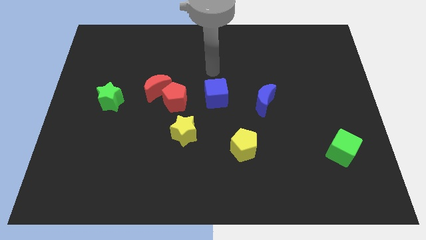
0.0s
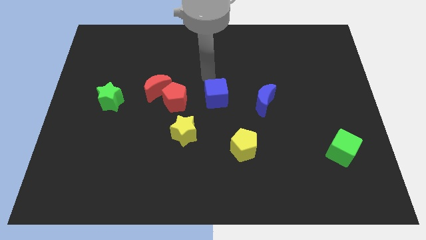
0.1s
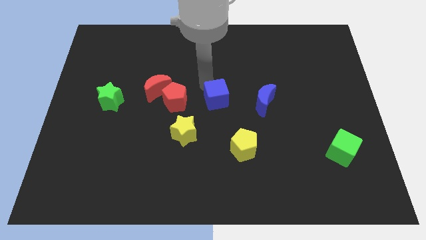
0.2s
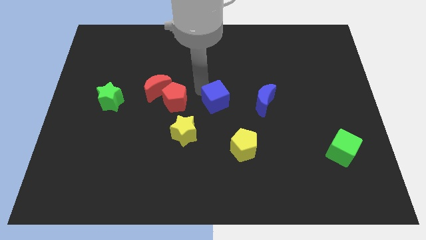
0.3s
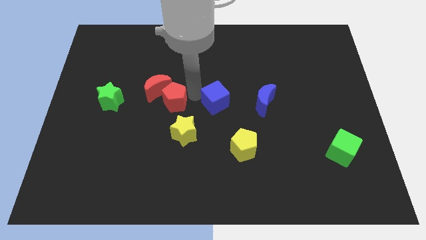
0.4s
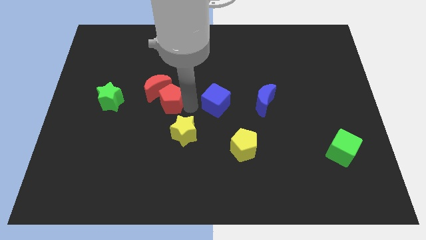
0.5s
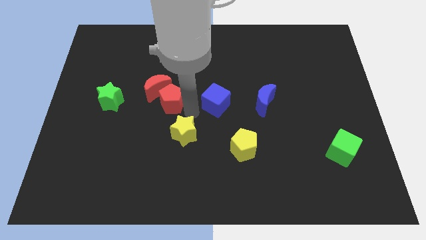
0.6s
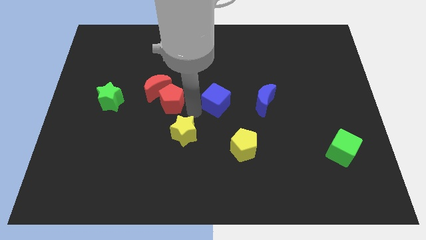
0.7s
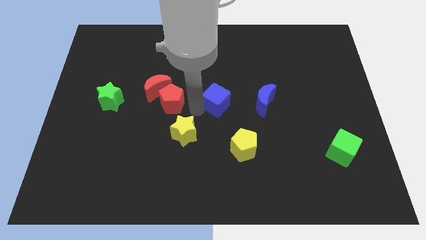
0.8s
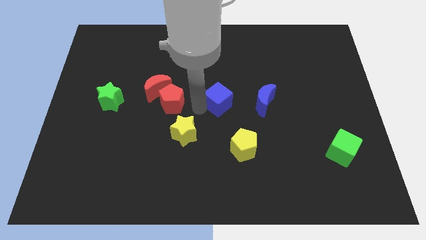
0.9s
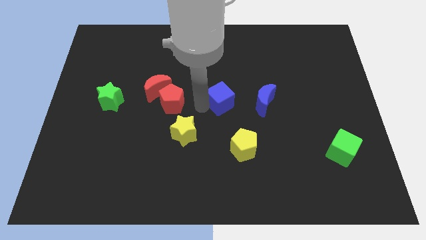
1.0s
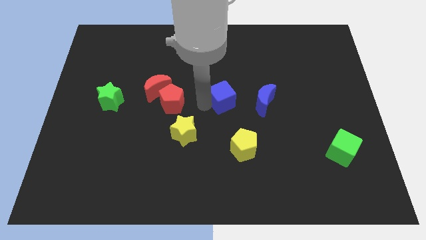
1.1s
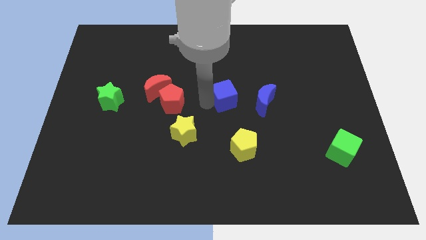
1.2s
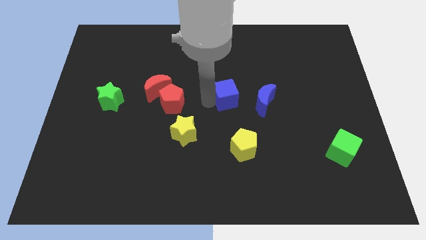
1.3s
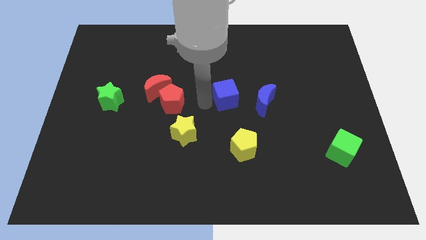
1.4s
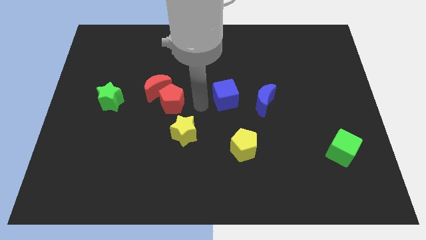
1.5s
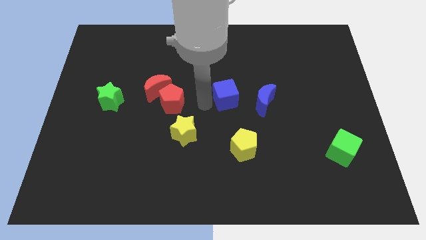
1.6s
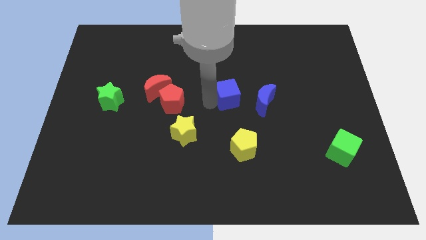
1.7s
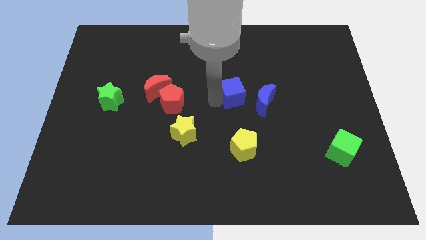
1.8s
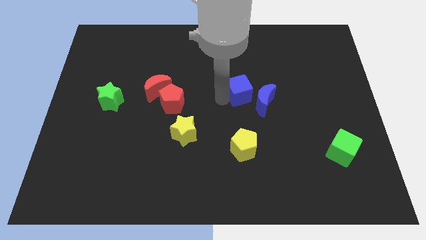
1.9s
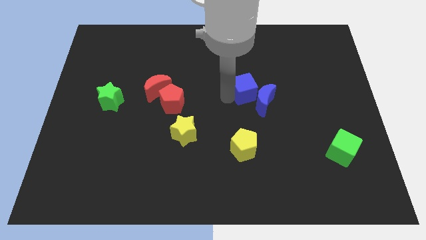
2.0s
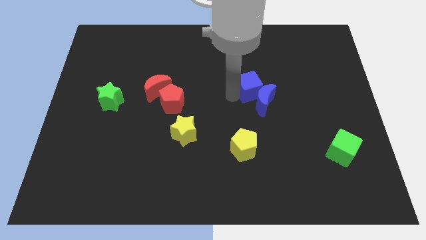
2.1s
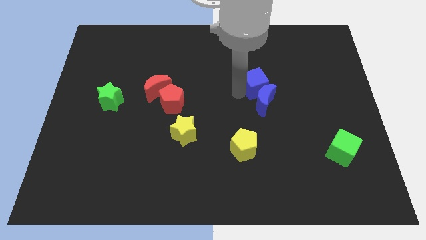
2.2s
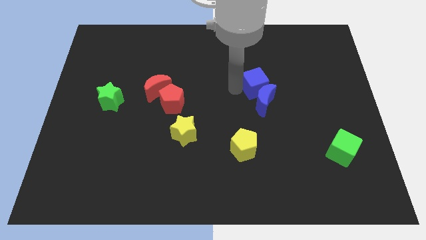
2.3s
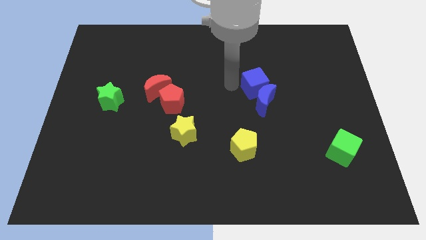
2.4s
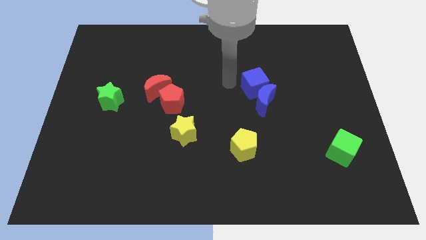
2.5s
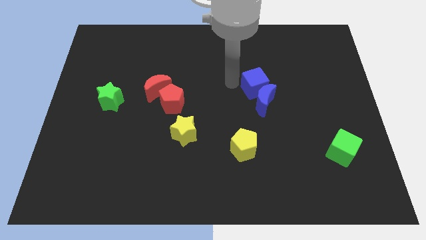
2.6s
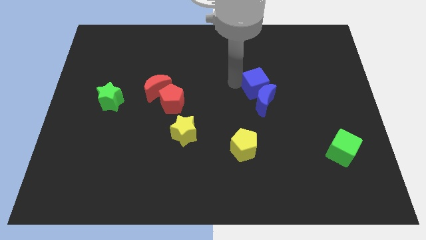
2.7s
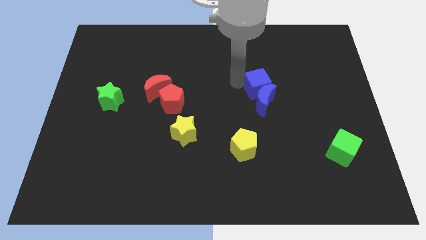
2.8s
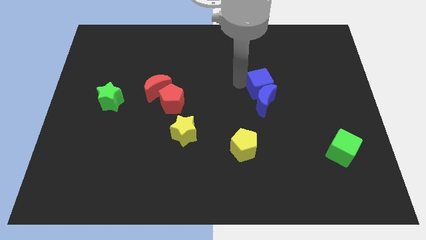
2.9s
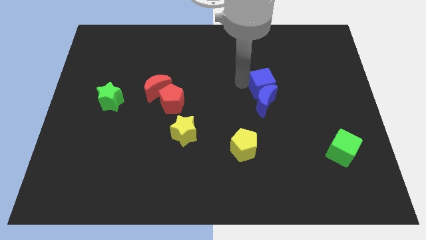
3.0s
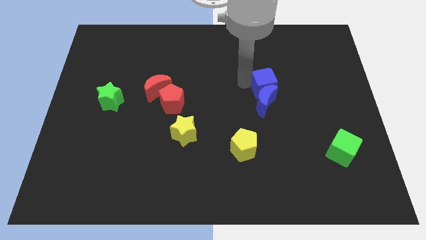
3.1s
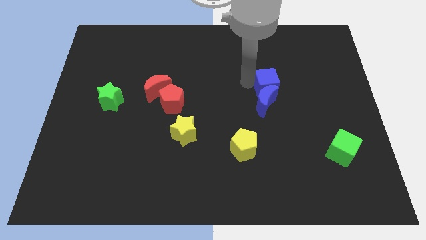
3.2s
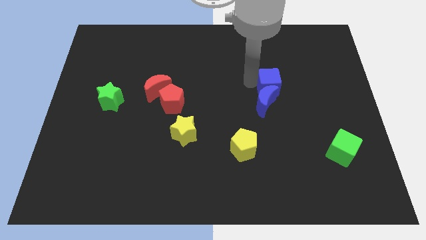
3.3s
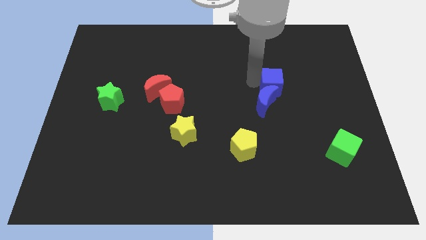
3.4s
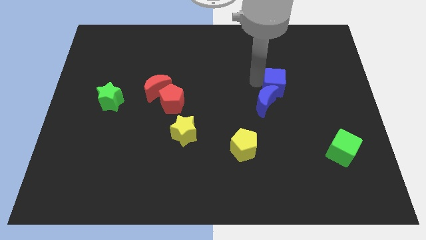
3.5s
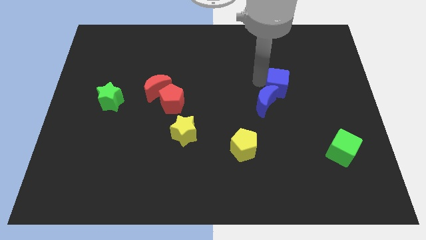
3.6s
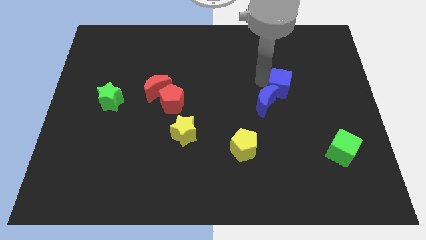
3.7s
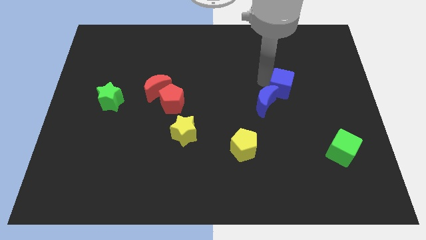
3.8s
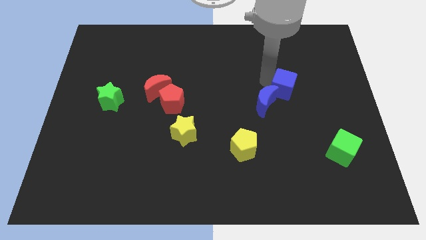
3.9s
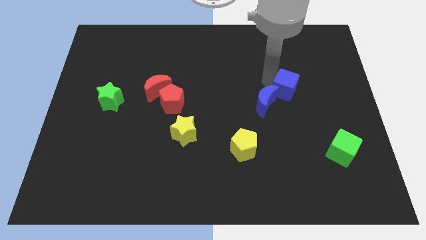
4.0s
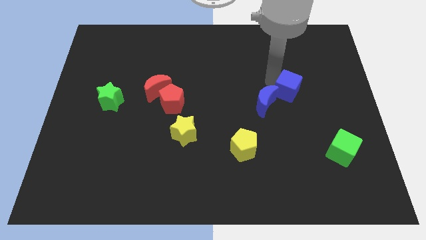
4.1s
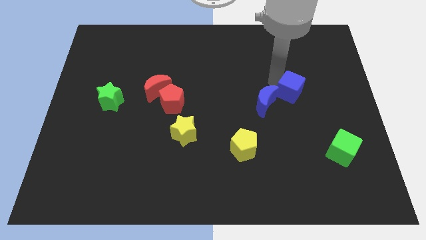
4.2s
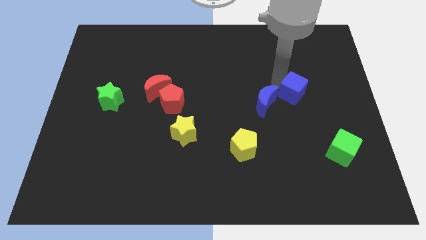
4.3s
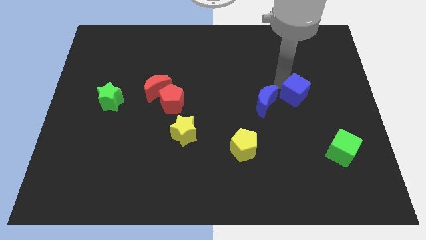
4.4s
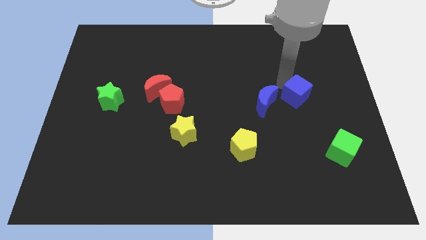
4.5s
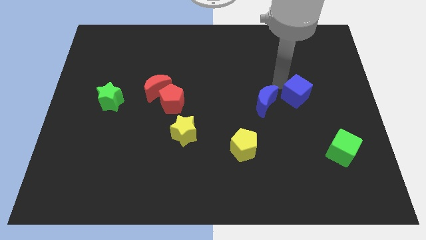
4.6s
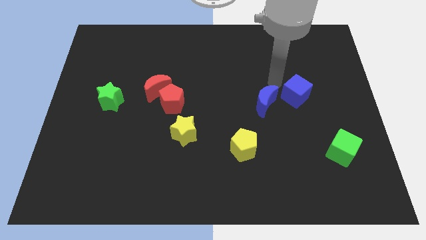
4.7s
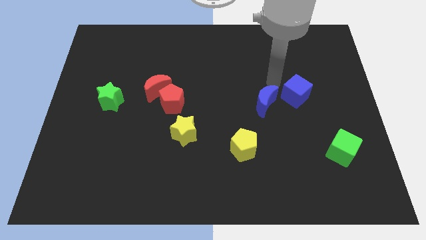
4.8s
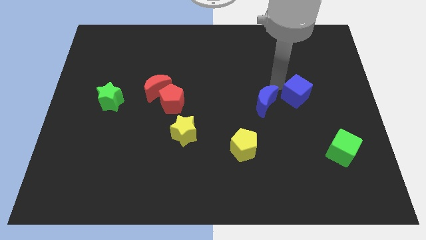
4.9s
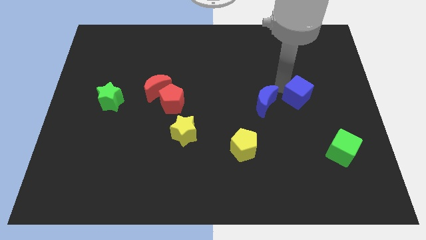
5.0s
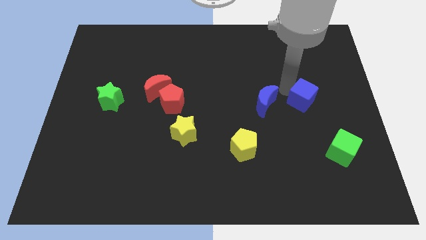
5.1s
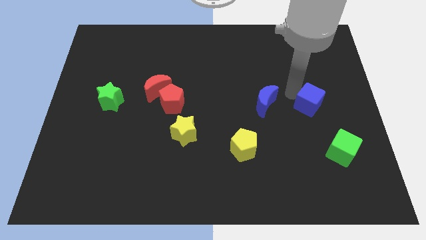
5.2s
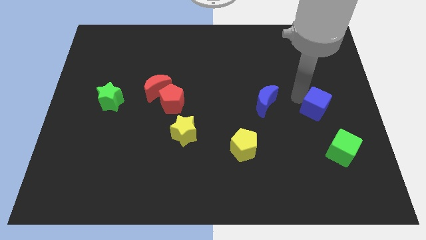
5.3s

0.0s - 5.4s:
push the blue cube to the top of the green cube

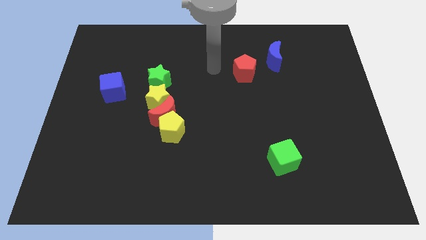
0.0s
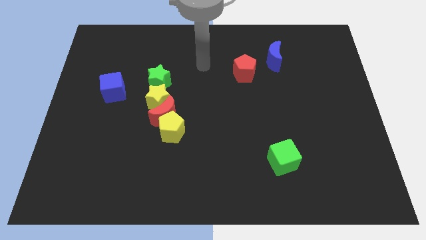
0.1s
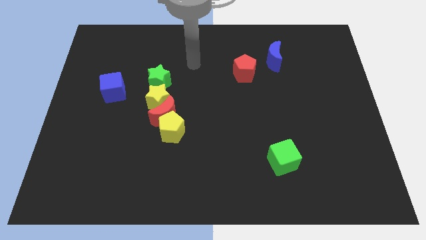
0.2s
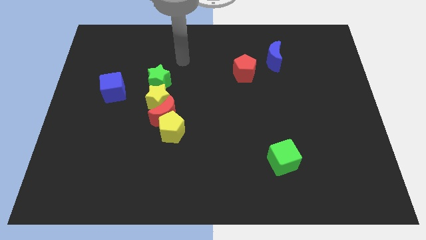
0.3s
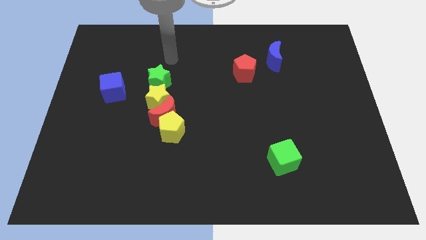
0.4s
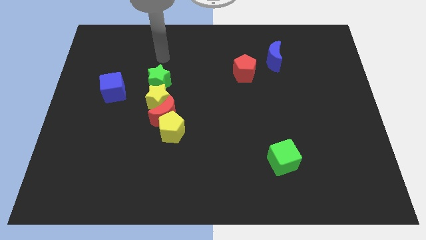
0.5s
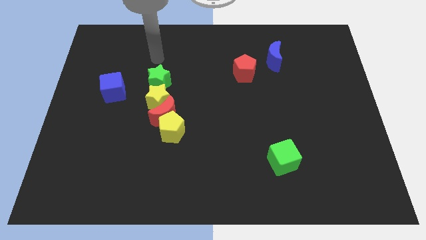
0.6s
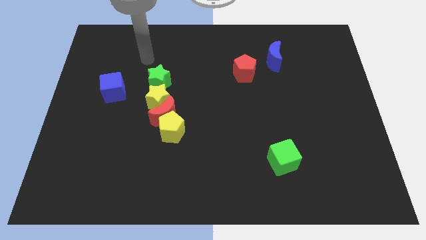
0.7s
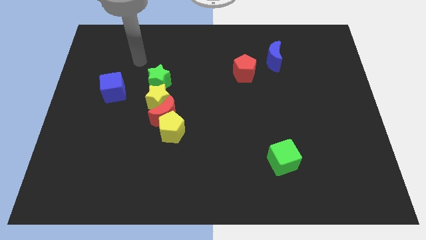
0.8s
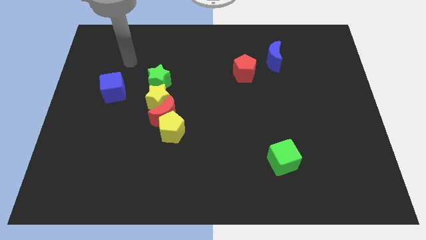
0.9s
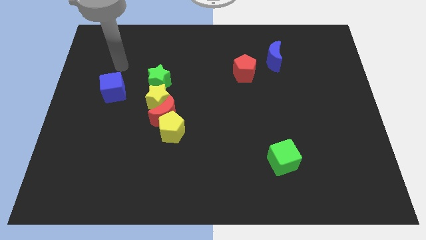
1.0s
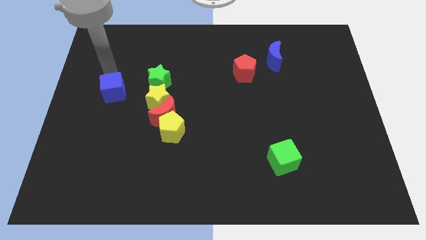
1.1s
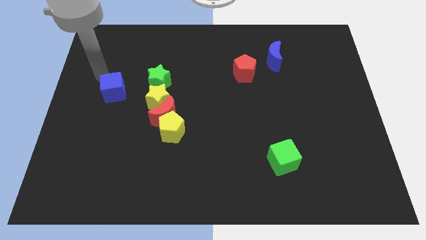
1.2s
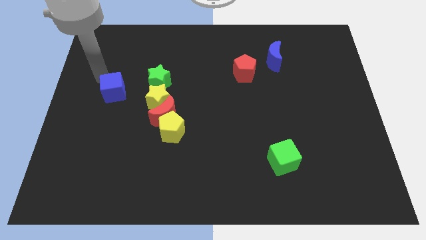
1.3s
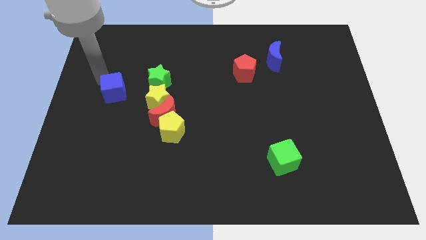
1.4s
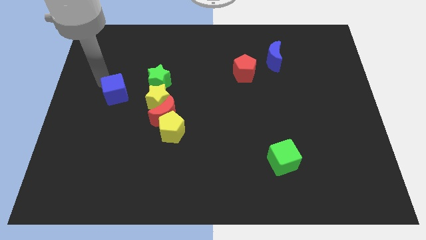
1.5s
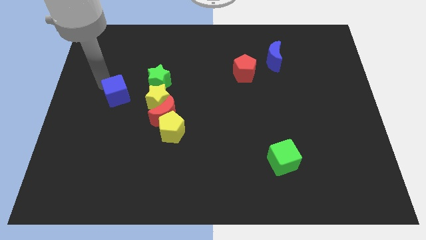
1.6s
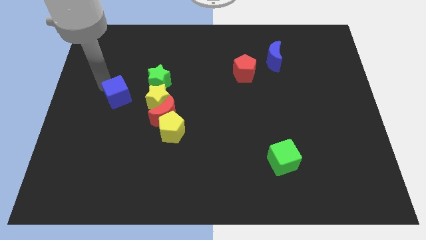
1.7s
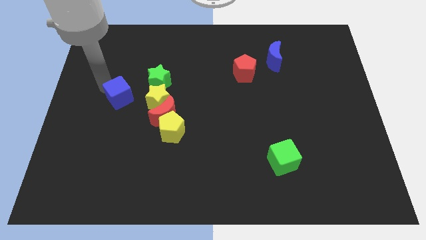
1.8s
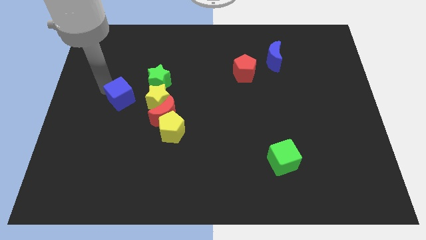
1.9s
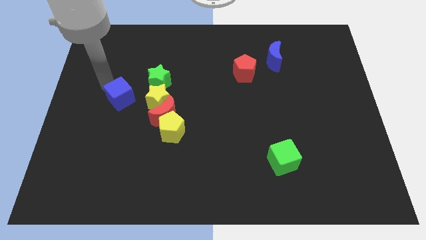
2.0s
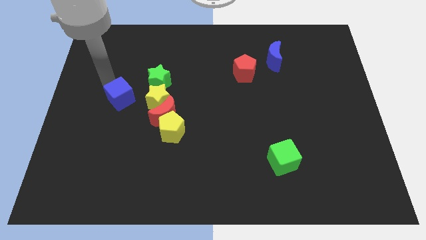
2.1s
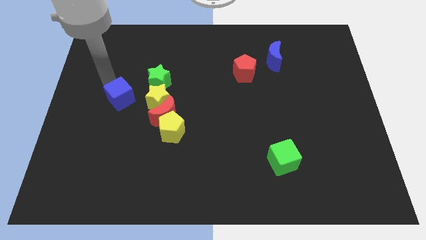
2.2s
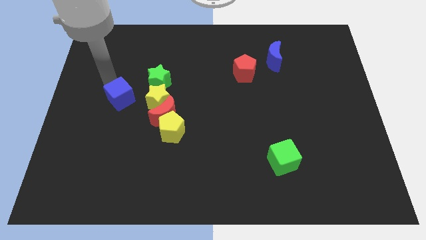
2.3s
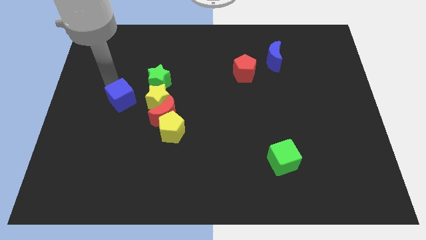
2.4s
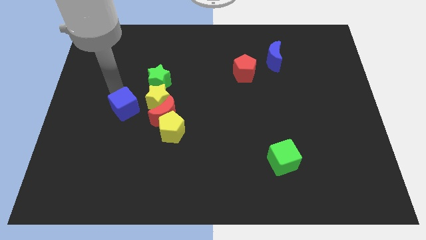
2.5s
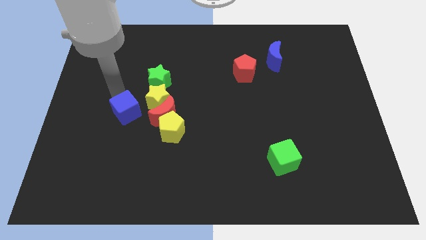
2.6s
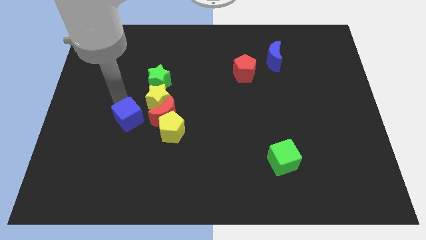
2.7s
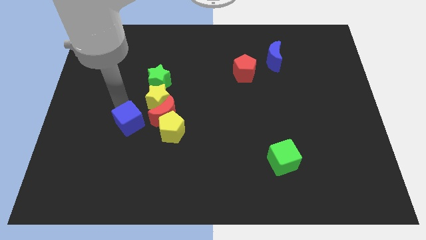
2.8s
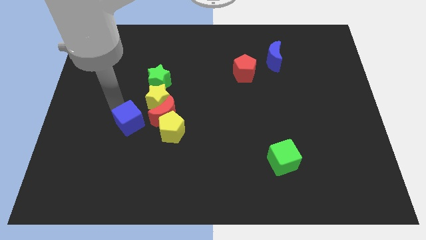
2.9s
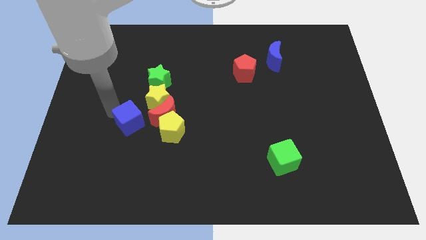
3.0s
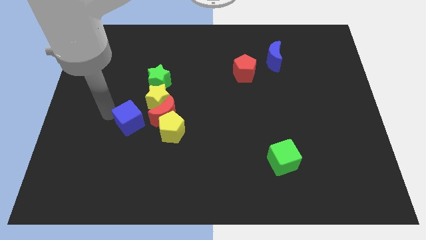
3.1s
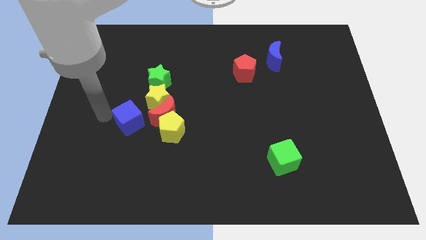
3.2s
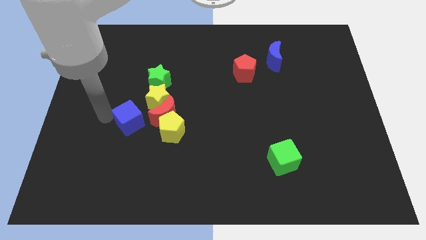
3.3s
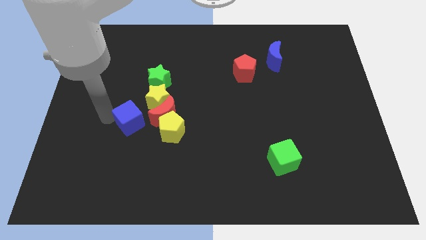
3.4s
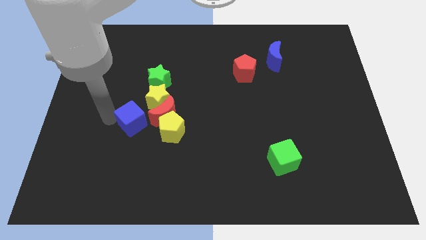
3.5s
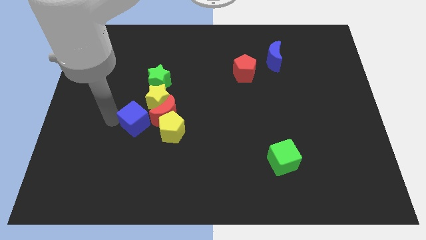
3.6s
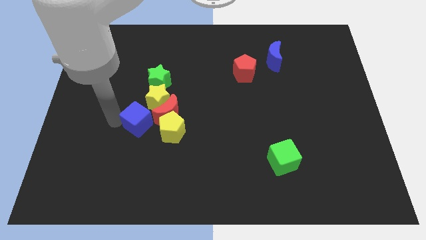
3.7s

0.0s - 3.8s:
move the blue cube below the yellow star
